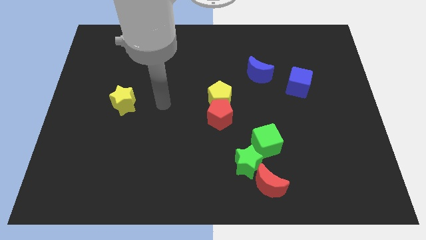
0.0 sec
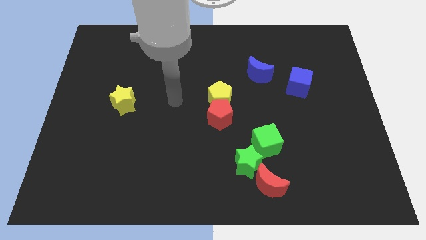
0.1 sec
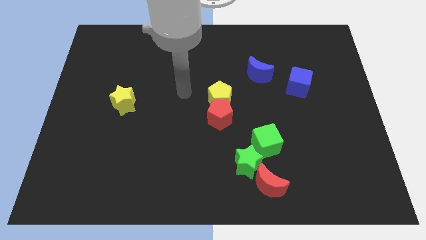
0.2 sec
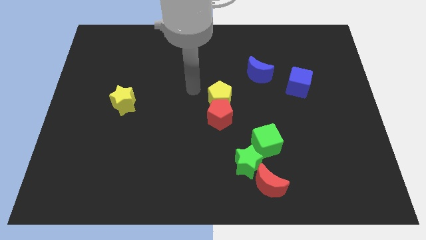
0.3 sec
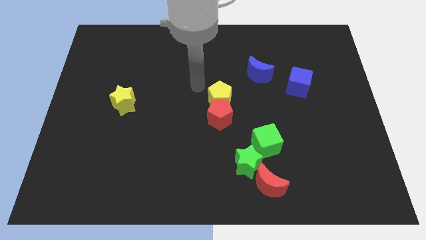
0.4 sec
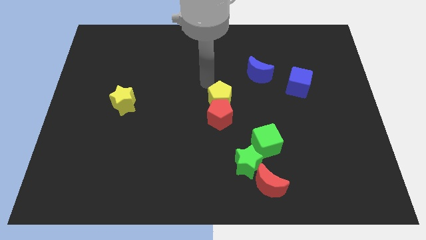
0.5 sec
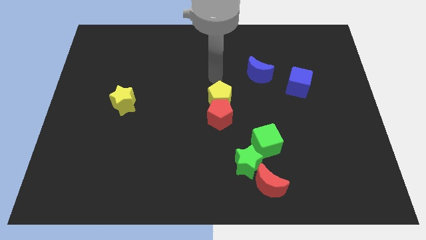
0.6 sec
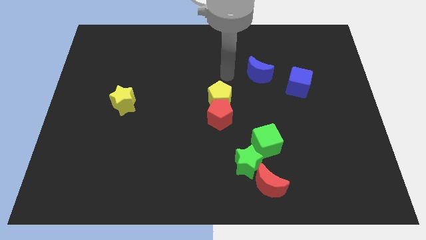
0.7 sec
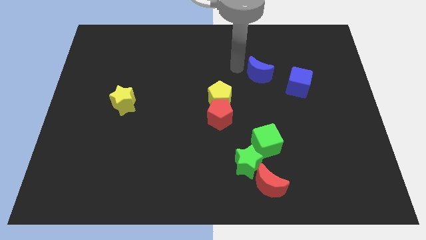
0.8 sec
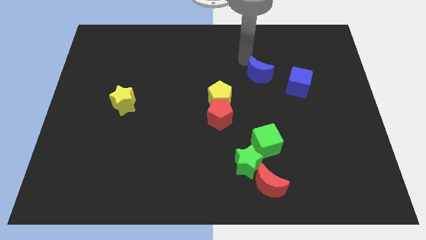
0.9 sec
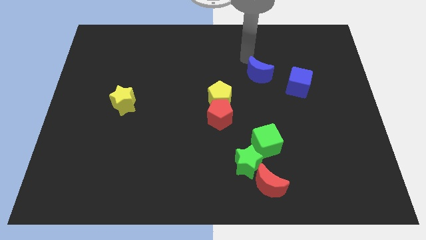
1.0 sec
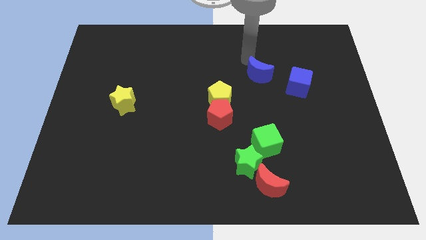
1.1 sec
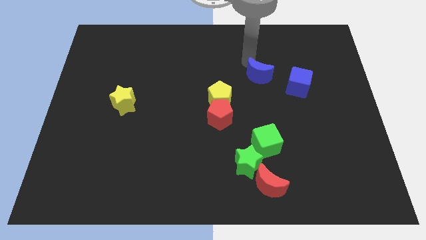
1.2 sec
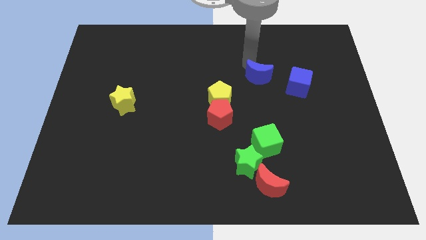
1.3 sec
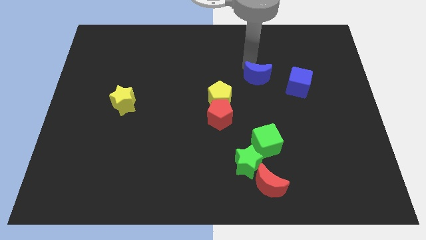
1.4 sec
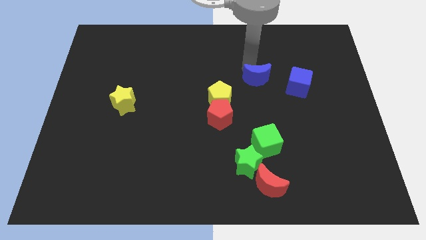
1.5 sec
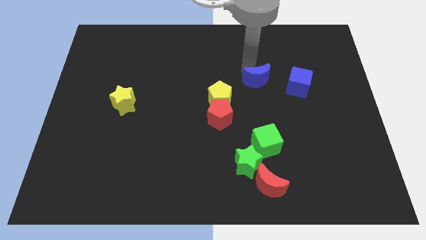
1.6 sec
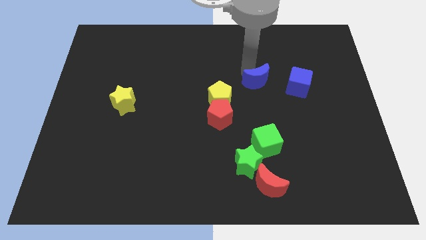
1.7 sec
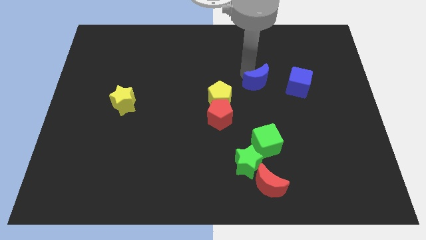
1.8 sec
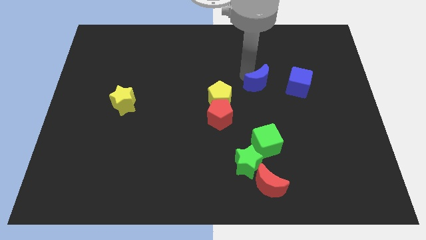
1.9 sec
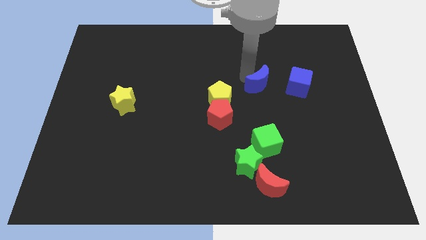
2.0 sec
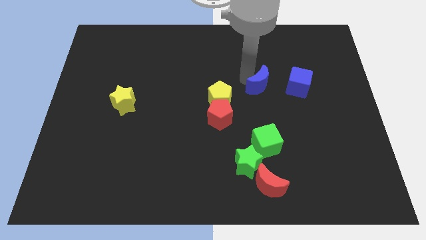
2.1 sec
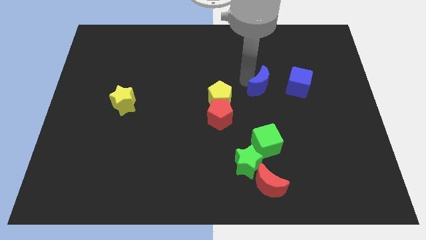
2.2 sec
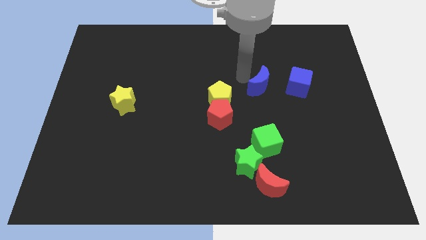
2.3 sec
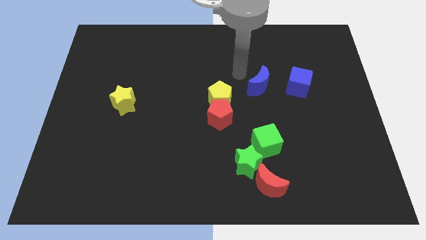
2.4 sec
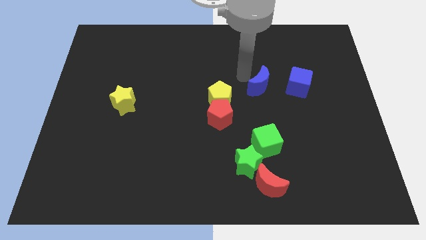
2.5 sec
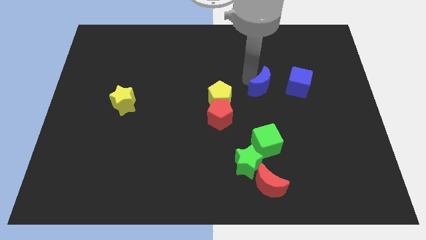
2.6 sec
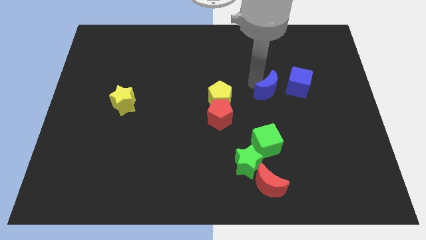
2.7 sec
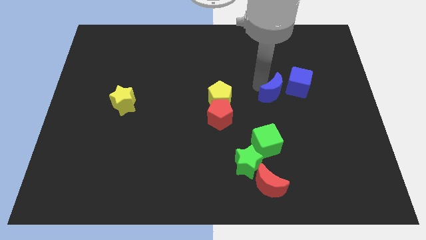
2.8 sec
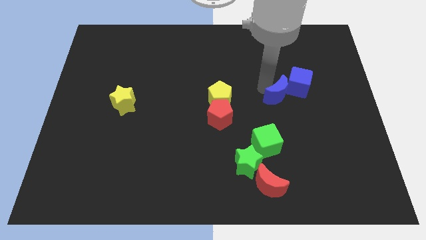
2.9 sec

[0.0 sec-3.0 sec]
slightly slide the blue moon down and right

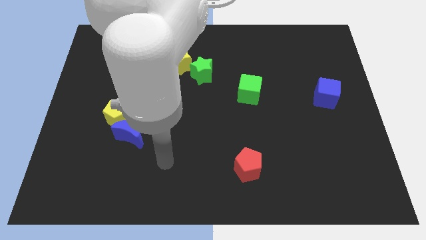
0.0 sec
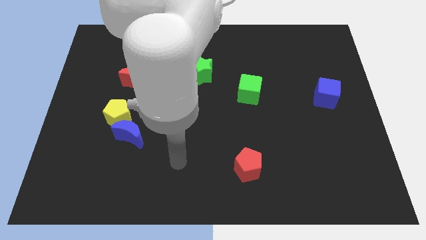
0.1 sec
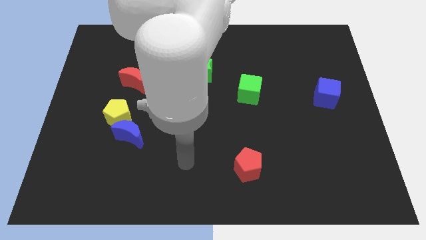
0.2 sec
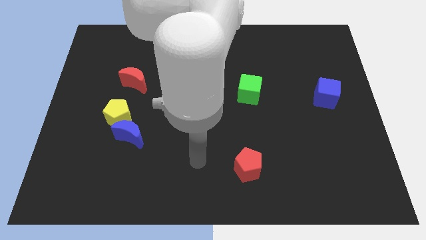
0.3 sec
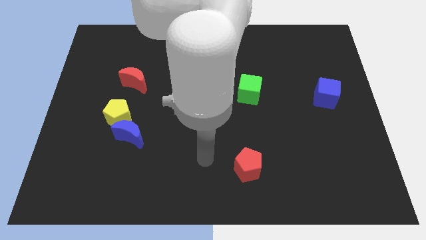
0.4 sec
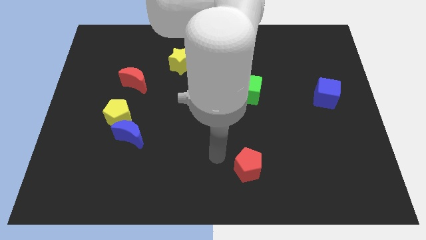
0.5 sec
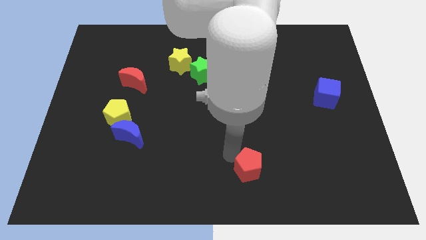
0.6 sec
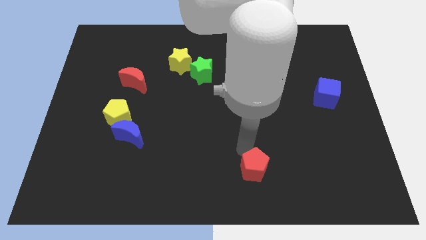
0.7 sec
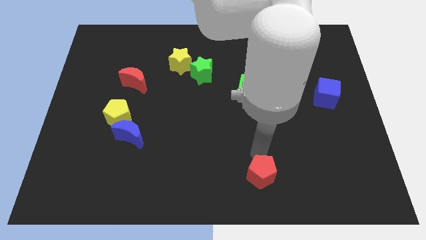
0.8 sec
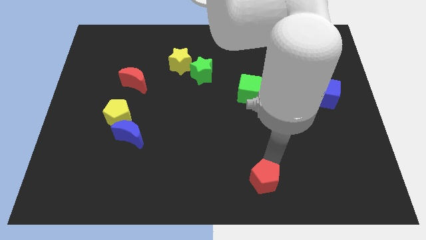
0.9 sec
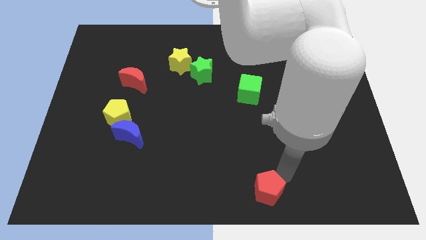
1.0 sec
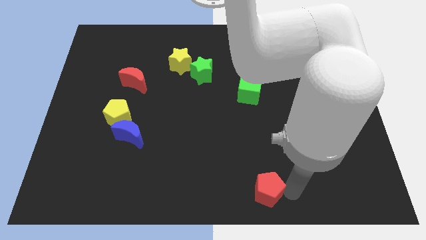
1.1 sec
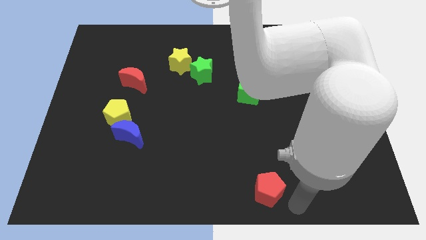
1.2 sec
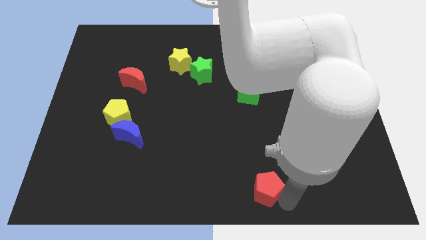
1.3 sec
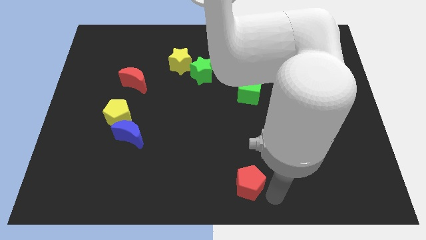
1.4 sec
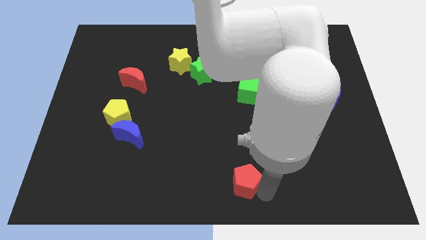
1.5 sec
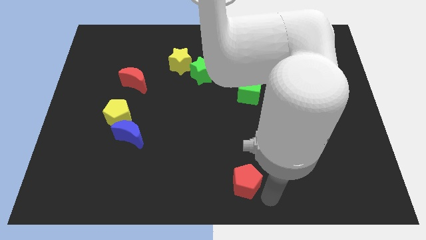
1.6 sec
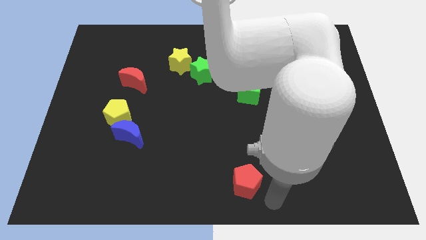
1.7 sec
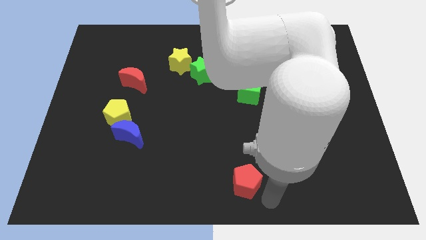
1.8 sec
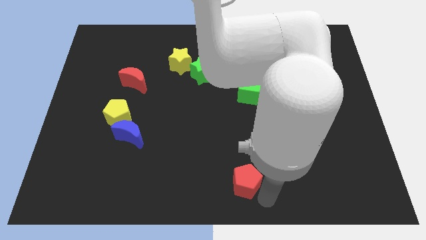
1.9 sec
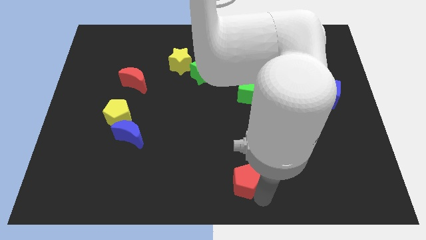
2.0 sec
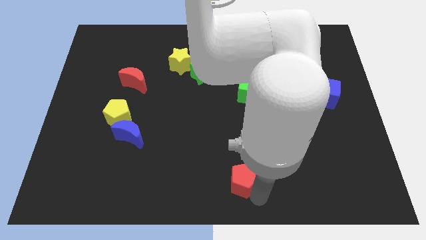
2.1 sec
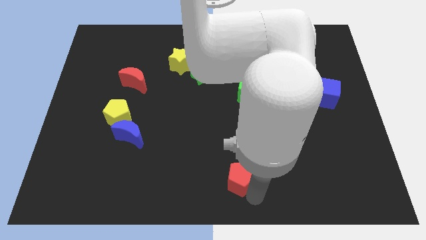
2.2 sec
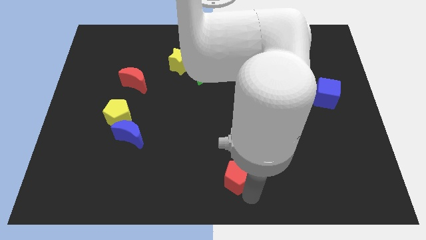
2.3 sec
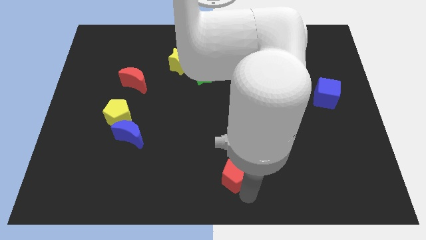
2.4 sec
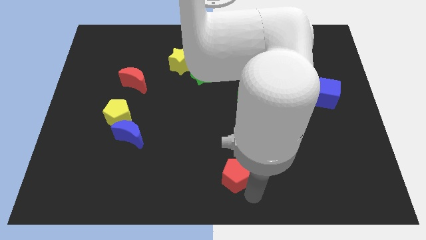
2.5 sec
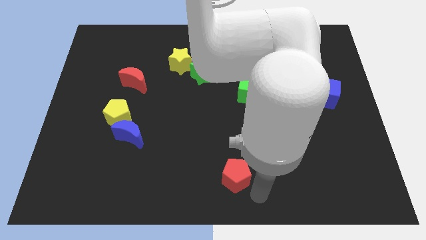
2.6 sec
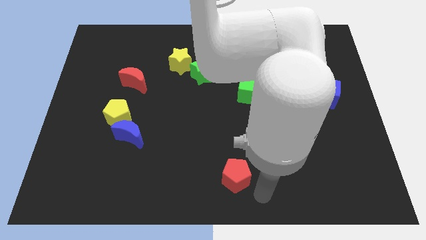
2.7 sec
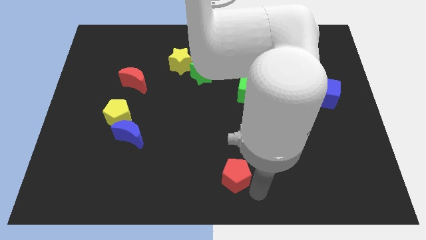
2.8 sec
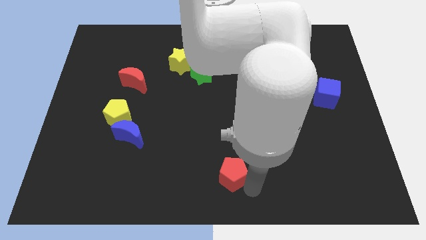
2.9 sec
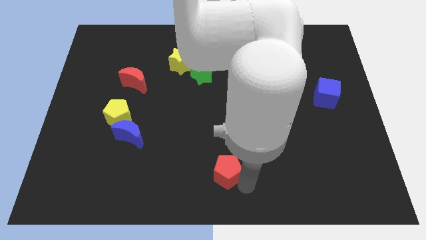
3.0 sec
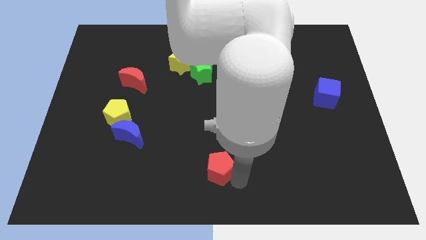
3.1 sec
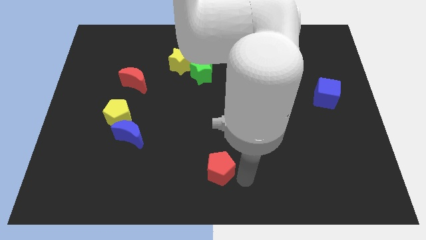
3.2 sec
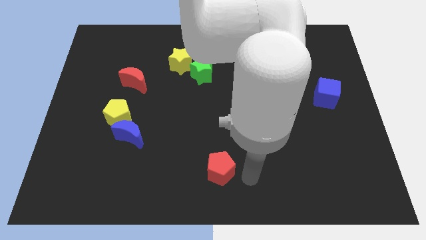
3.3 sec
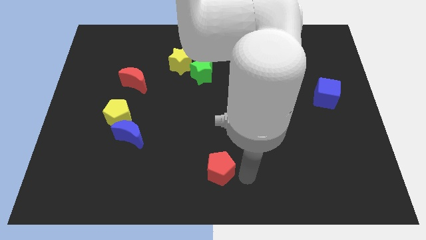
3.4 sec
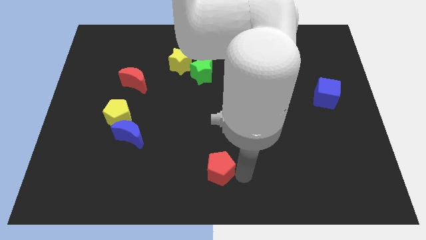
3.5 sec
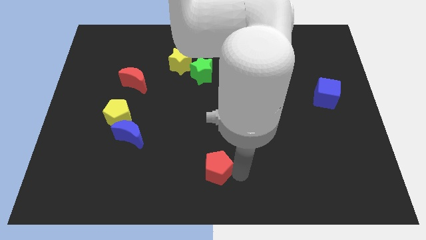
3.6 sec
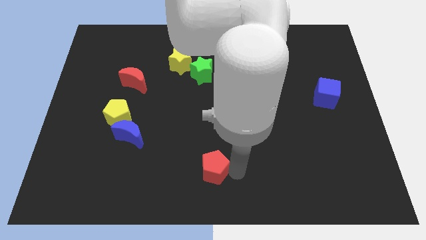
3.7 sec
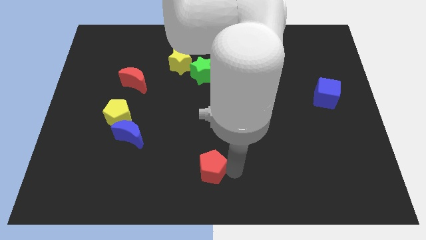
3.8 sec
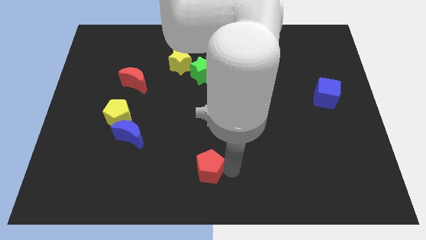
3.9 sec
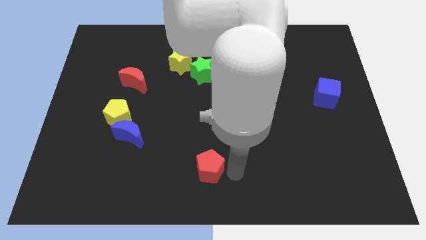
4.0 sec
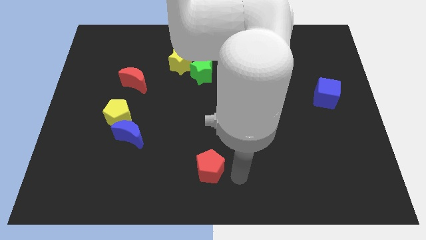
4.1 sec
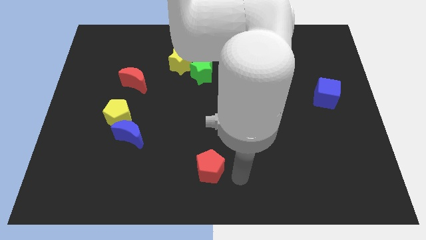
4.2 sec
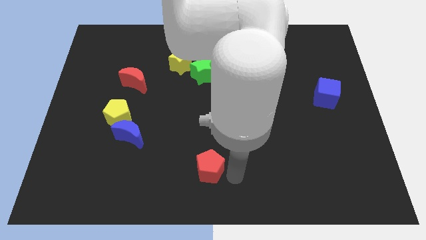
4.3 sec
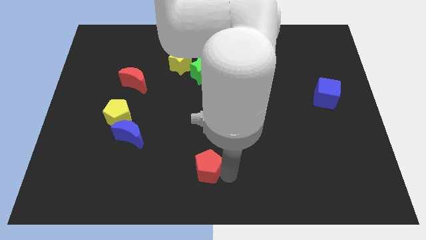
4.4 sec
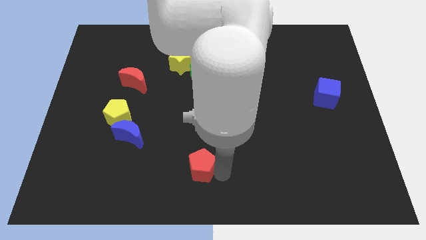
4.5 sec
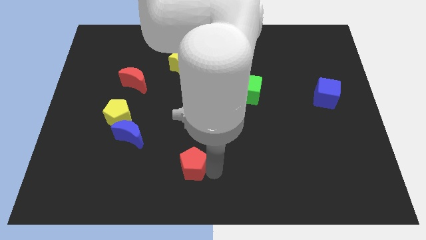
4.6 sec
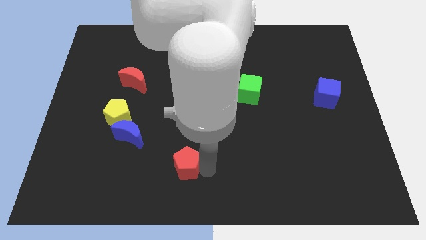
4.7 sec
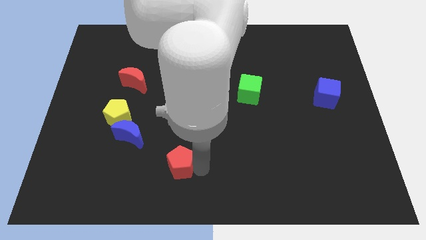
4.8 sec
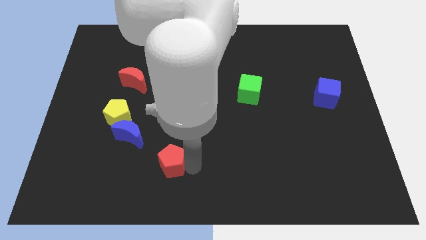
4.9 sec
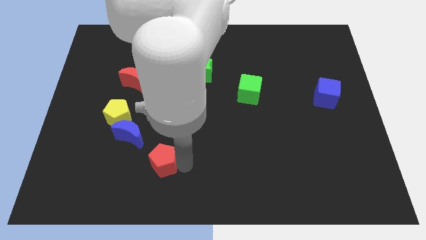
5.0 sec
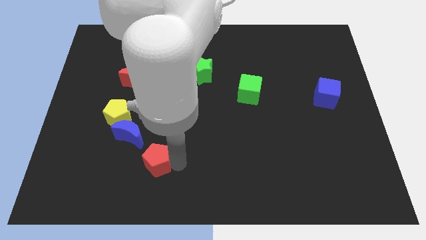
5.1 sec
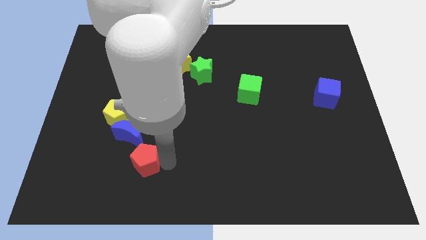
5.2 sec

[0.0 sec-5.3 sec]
move the red pentagon left
